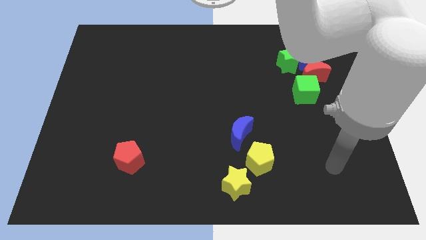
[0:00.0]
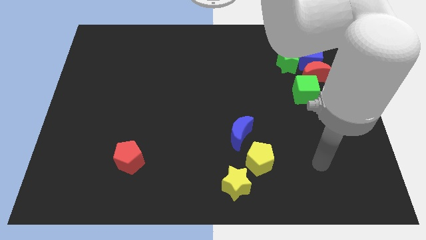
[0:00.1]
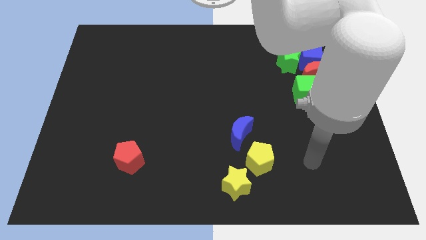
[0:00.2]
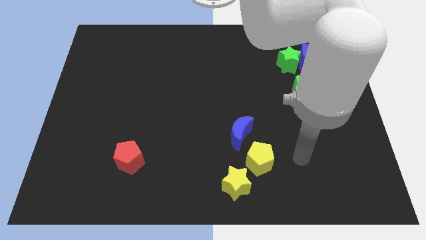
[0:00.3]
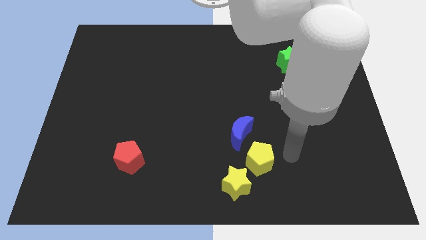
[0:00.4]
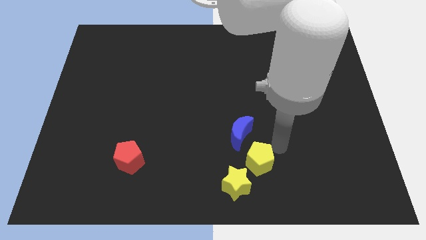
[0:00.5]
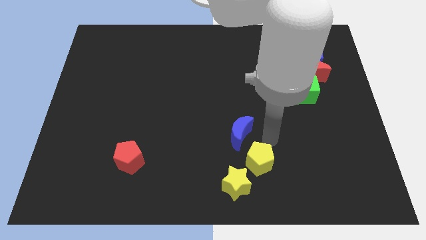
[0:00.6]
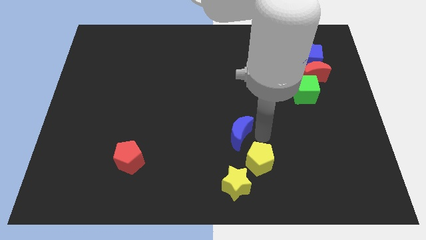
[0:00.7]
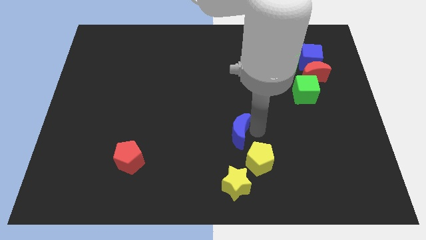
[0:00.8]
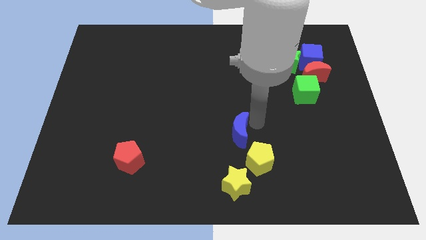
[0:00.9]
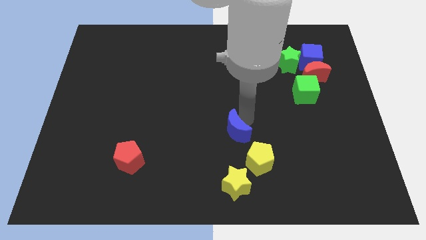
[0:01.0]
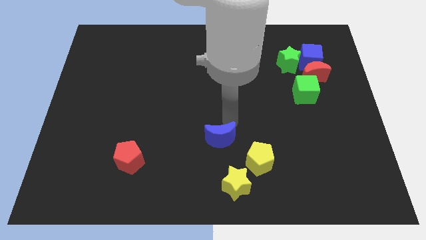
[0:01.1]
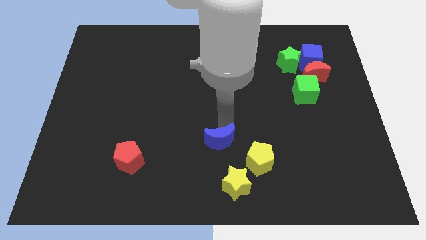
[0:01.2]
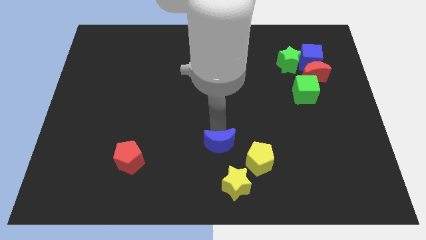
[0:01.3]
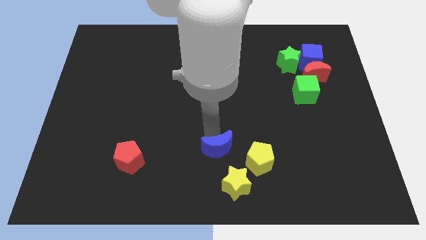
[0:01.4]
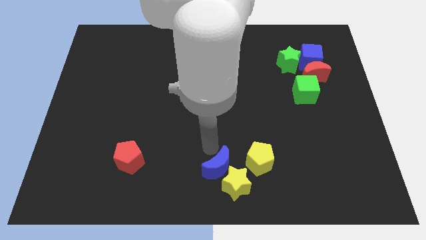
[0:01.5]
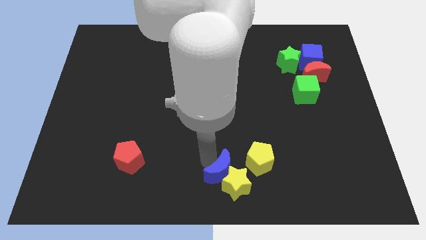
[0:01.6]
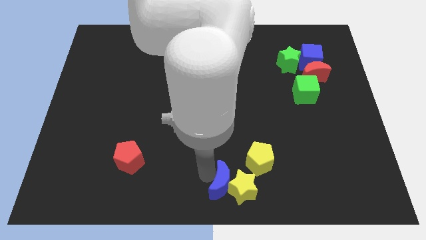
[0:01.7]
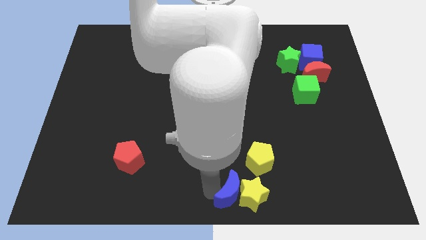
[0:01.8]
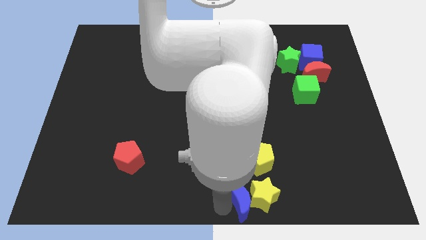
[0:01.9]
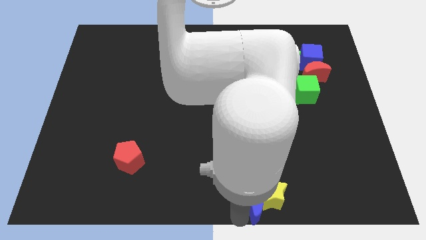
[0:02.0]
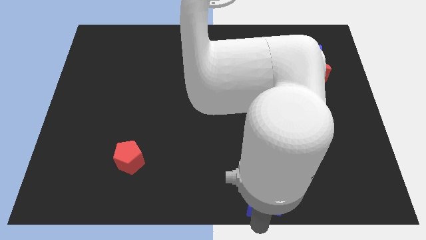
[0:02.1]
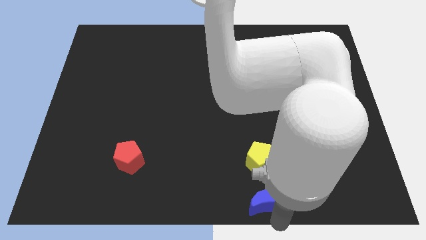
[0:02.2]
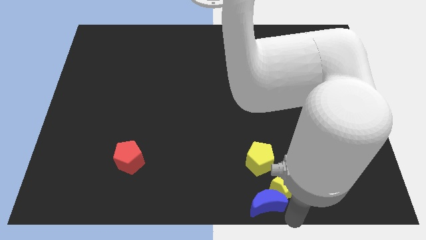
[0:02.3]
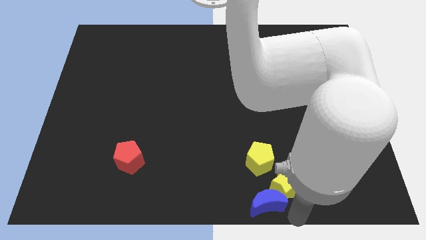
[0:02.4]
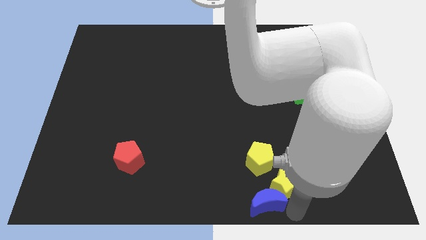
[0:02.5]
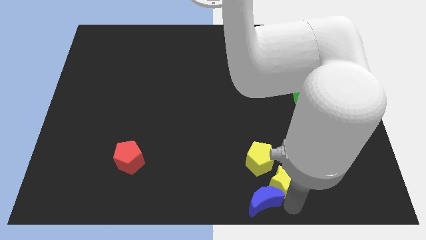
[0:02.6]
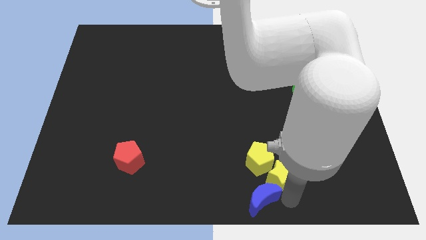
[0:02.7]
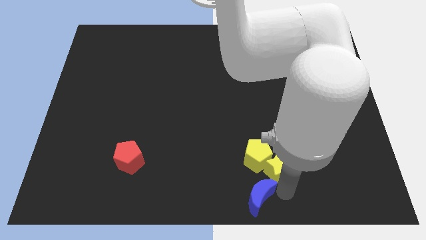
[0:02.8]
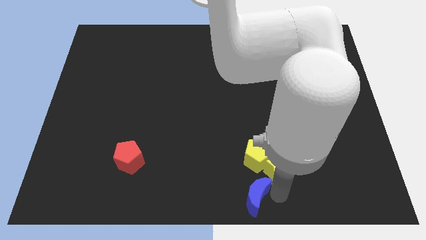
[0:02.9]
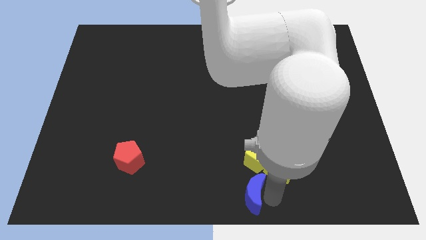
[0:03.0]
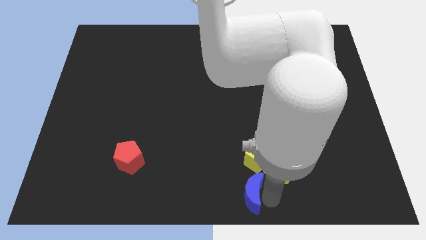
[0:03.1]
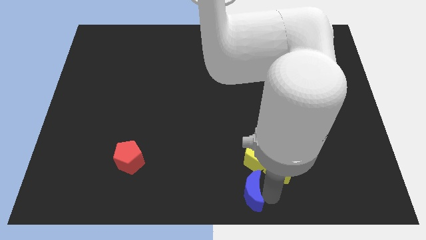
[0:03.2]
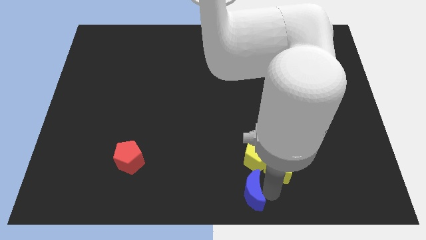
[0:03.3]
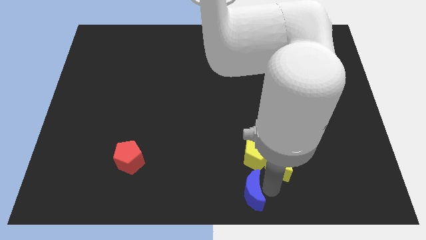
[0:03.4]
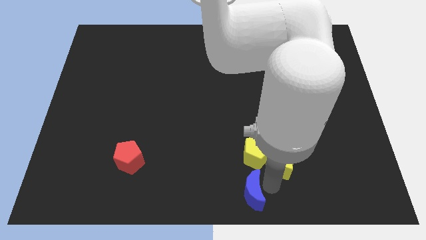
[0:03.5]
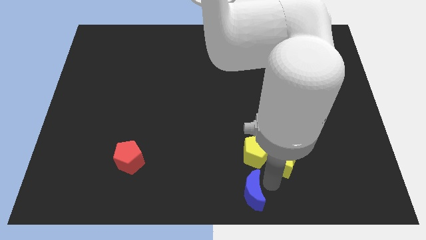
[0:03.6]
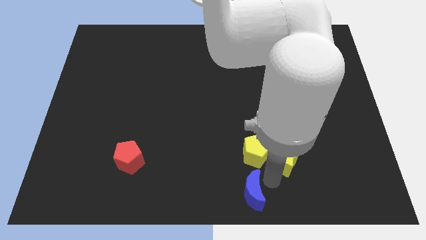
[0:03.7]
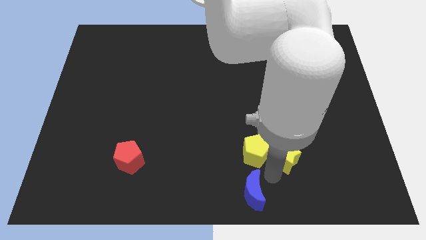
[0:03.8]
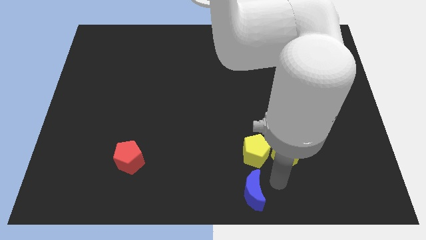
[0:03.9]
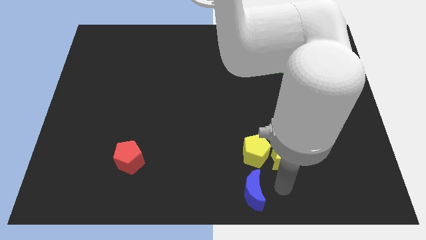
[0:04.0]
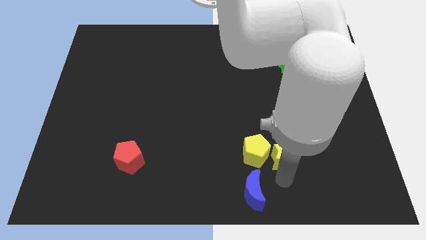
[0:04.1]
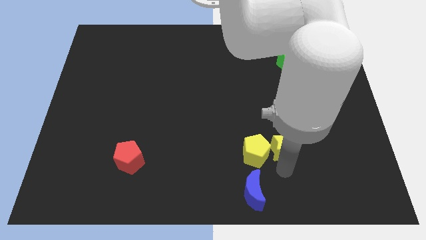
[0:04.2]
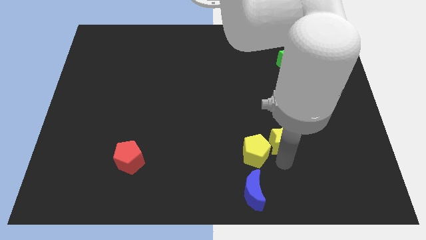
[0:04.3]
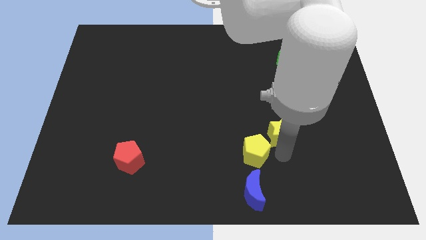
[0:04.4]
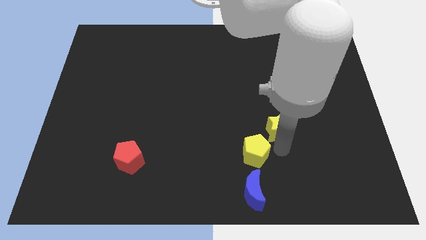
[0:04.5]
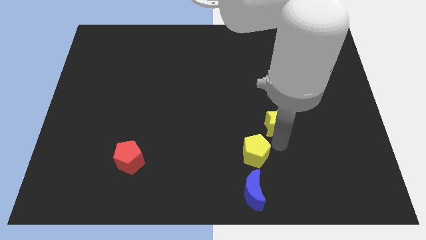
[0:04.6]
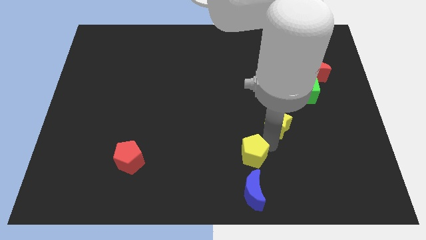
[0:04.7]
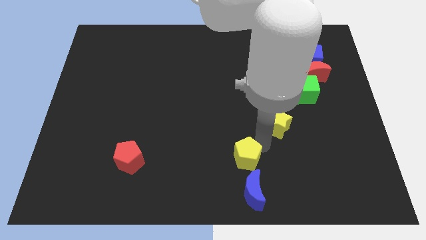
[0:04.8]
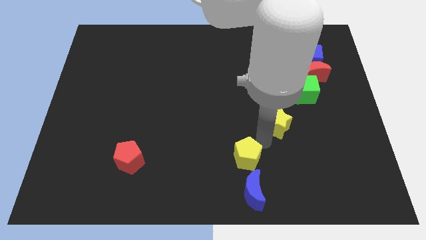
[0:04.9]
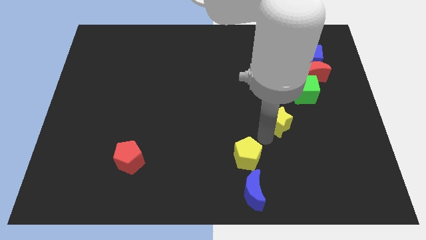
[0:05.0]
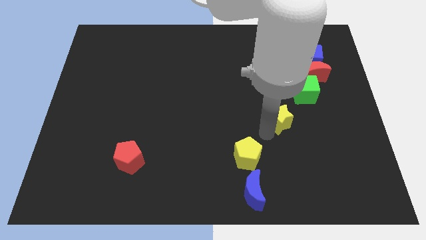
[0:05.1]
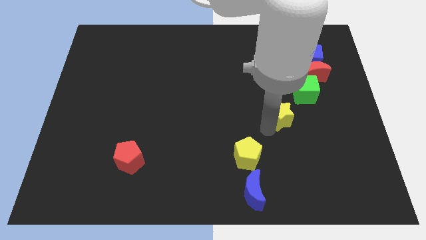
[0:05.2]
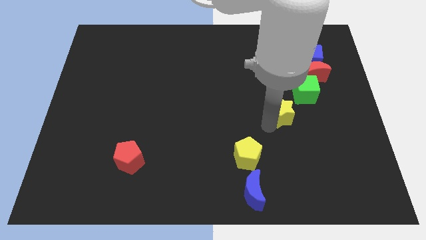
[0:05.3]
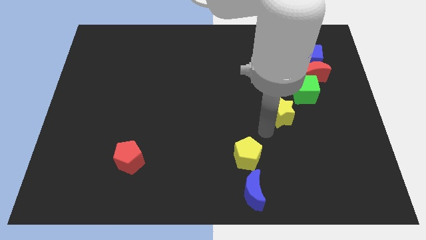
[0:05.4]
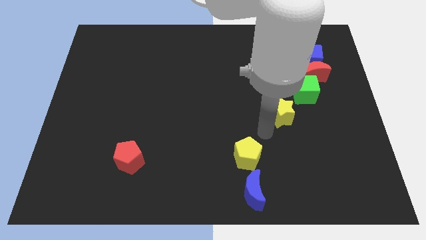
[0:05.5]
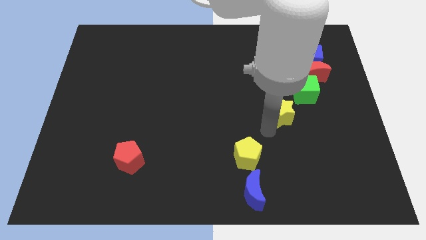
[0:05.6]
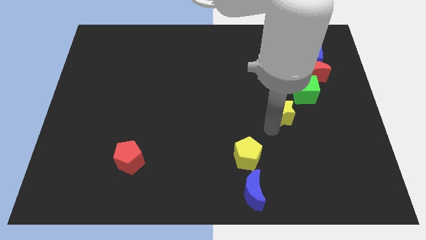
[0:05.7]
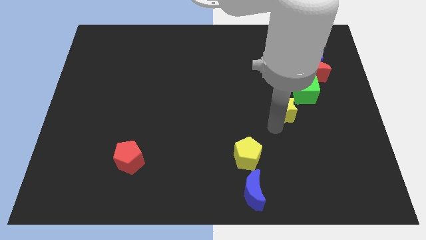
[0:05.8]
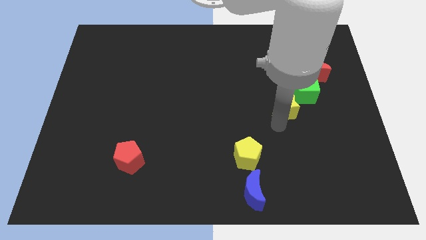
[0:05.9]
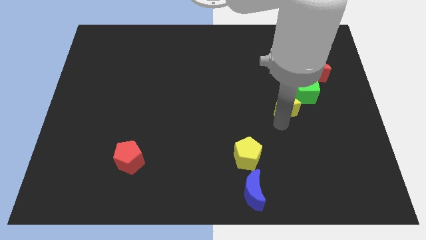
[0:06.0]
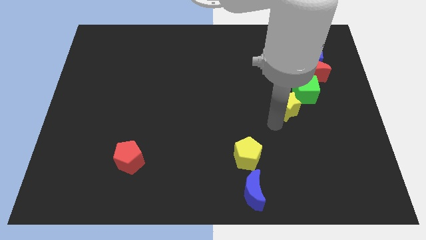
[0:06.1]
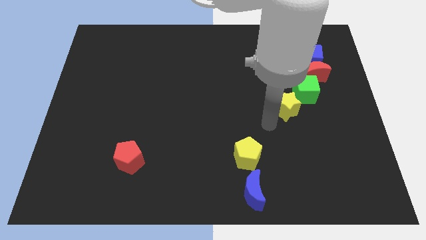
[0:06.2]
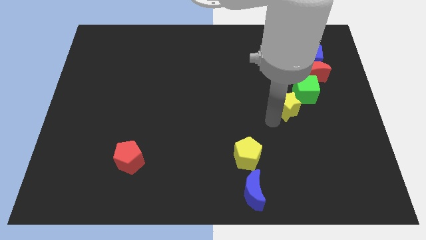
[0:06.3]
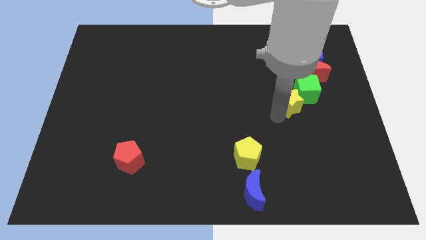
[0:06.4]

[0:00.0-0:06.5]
slide the yellow star next to the green cube
